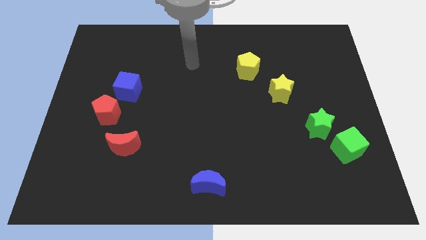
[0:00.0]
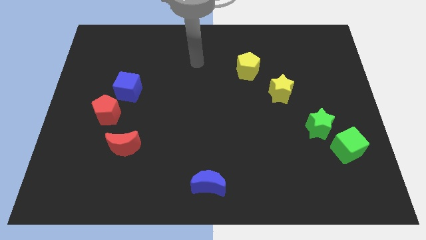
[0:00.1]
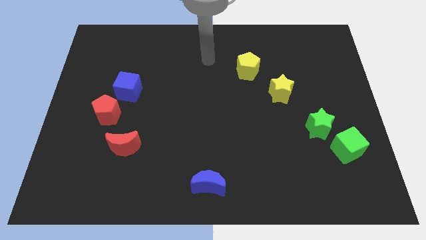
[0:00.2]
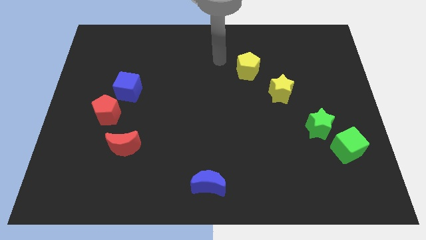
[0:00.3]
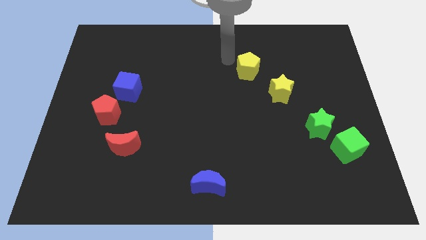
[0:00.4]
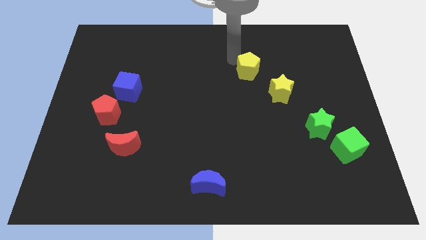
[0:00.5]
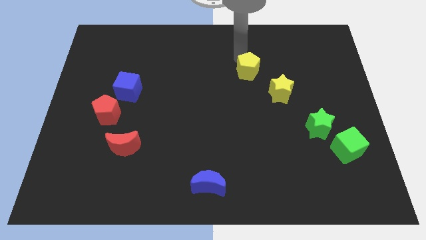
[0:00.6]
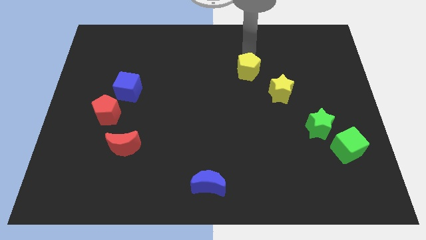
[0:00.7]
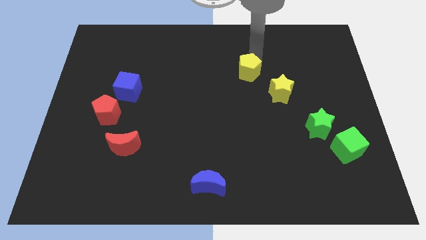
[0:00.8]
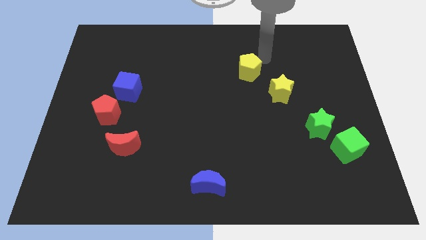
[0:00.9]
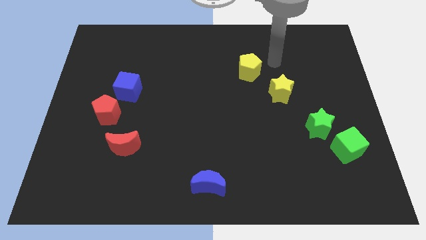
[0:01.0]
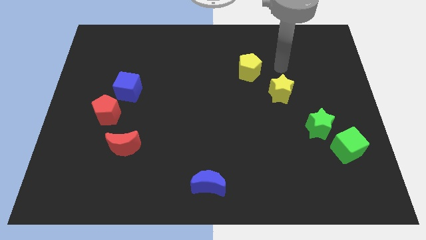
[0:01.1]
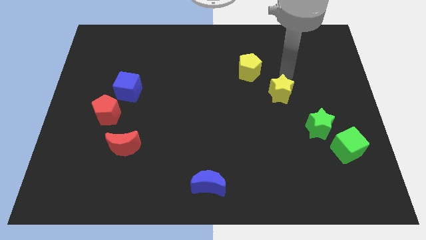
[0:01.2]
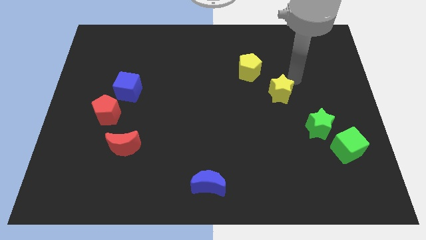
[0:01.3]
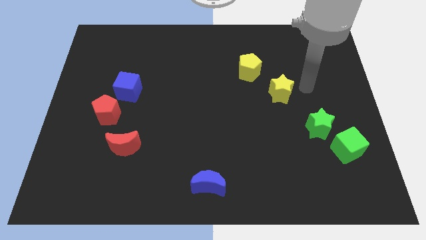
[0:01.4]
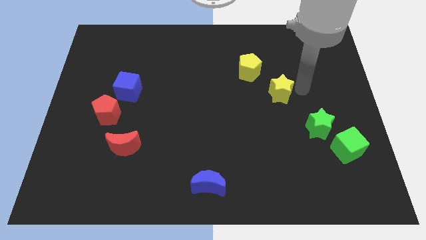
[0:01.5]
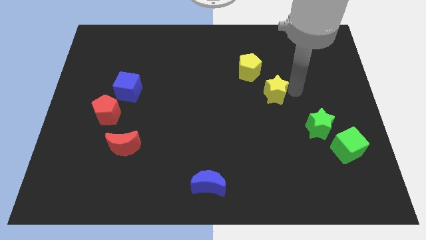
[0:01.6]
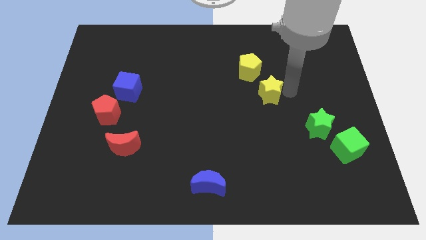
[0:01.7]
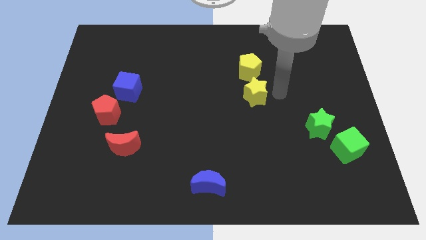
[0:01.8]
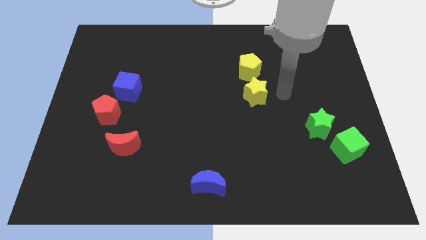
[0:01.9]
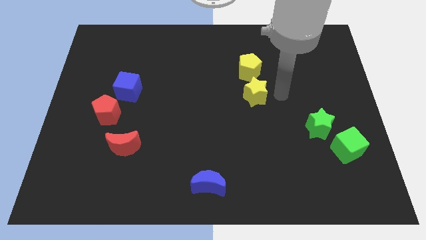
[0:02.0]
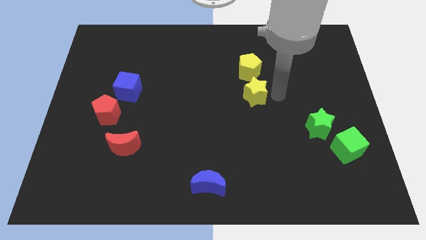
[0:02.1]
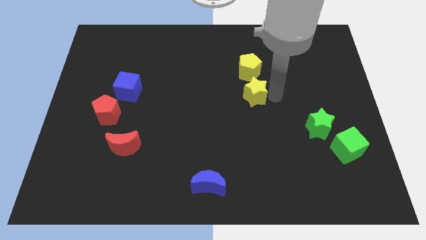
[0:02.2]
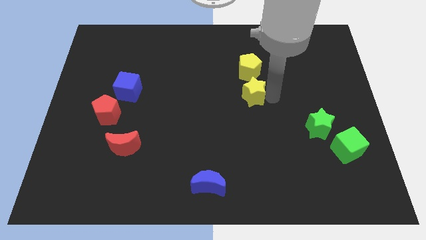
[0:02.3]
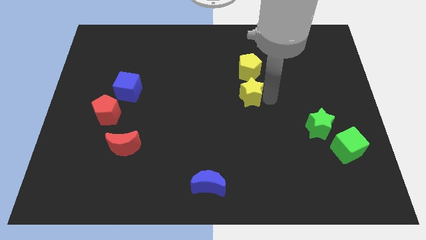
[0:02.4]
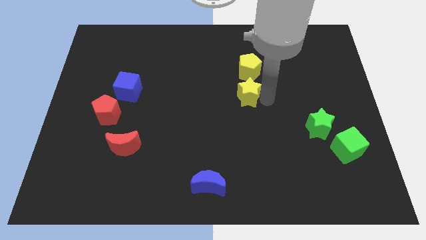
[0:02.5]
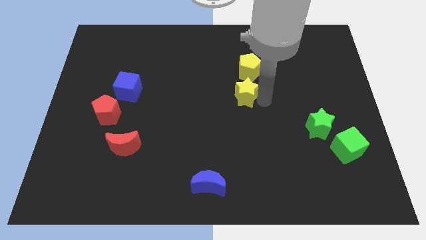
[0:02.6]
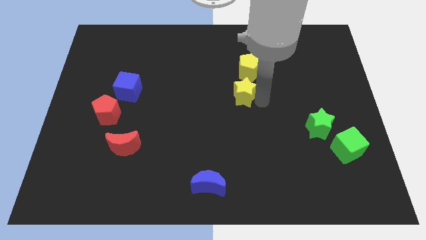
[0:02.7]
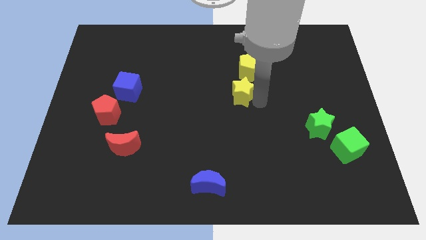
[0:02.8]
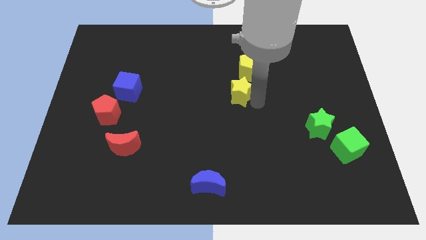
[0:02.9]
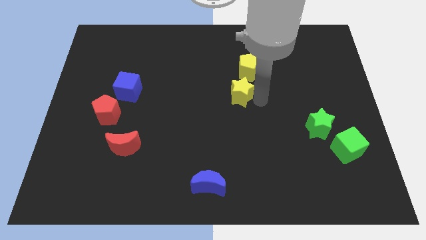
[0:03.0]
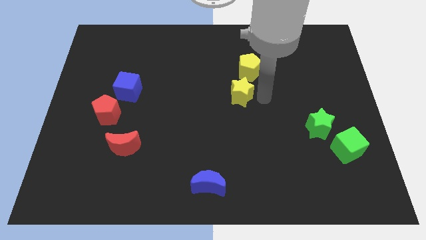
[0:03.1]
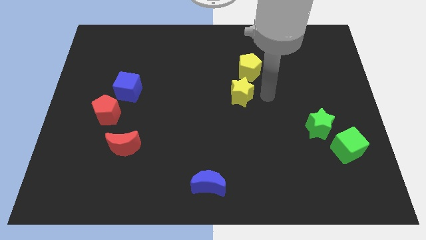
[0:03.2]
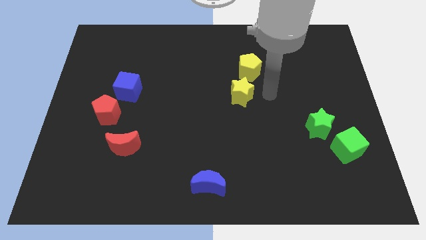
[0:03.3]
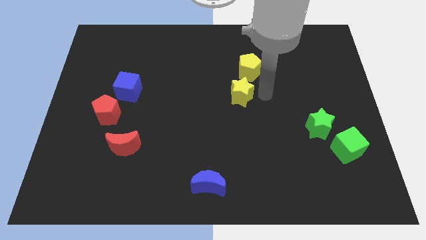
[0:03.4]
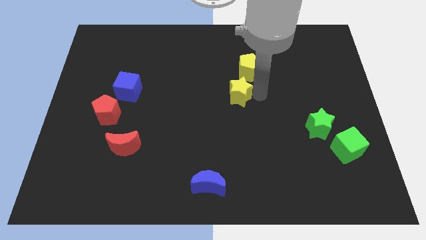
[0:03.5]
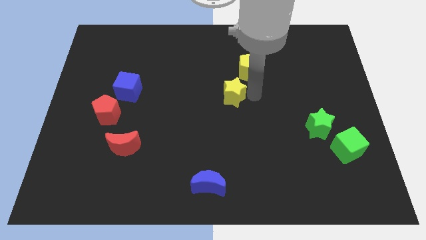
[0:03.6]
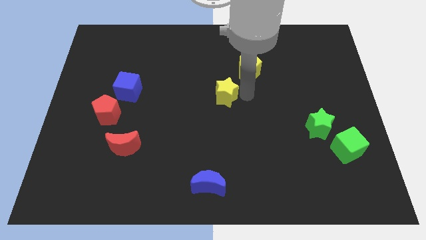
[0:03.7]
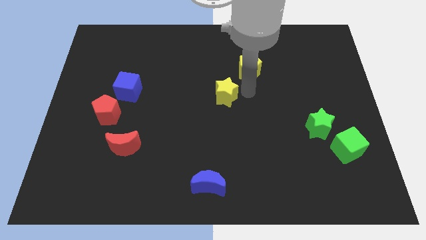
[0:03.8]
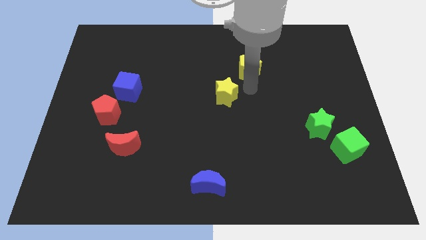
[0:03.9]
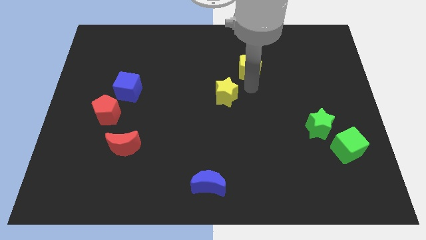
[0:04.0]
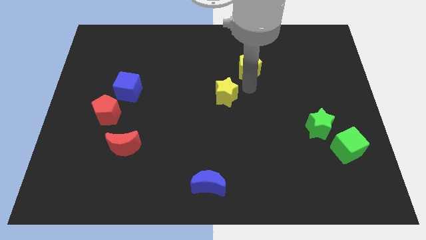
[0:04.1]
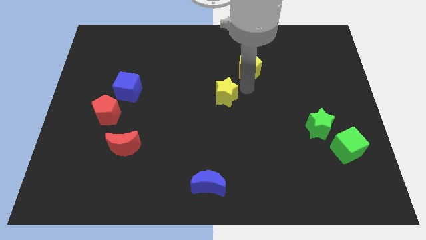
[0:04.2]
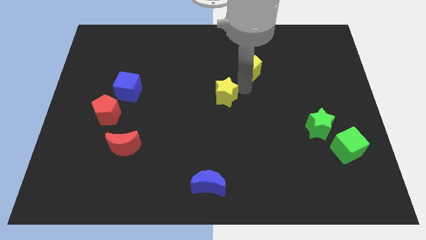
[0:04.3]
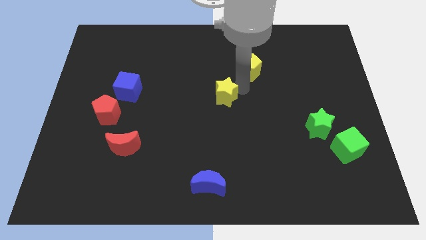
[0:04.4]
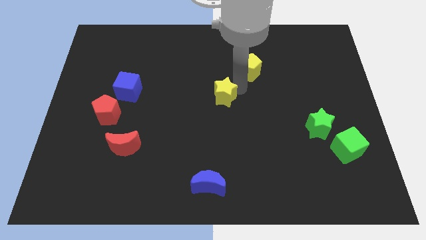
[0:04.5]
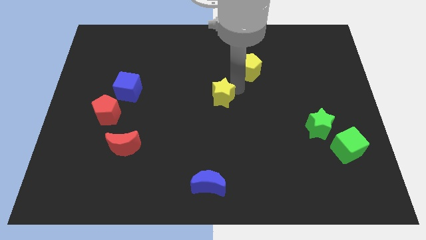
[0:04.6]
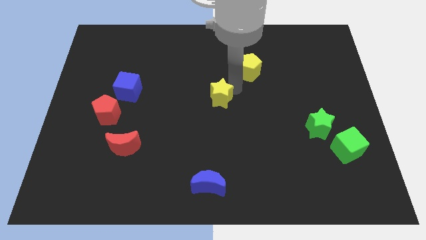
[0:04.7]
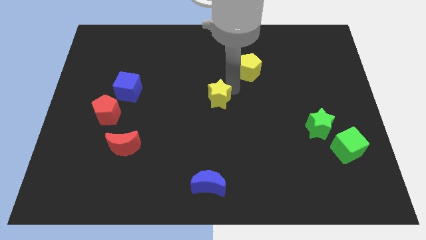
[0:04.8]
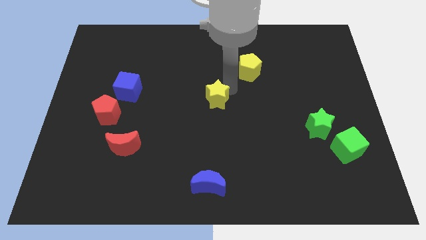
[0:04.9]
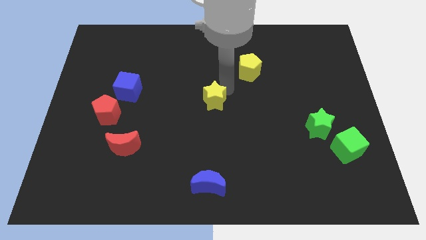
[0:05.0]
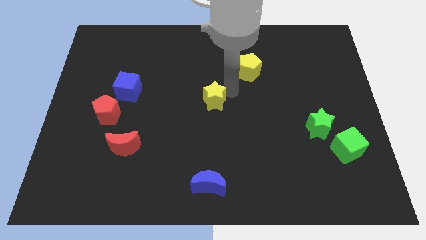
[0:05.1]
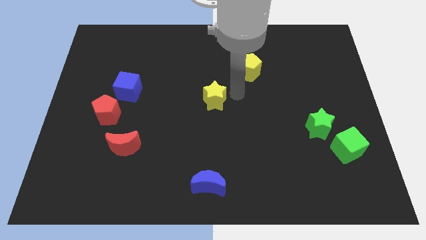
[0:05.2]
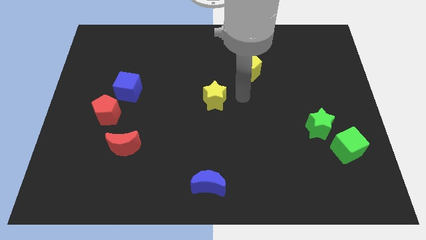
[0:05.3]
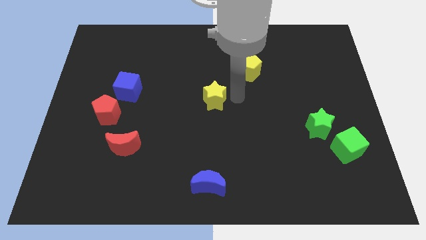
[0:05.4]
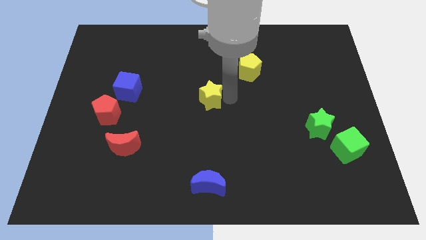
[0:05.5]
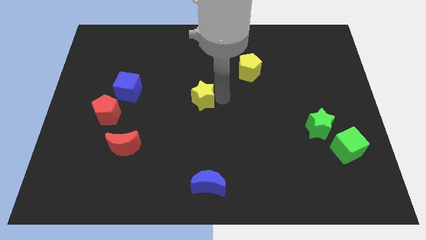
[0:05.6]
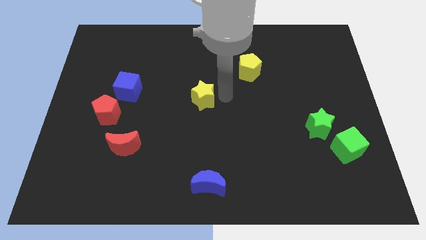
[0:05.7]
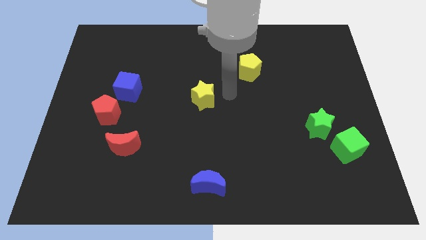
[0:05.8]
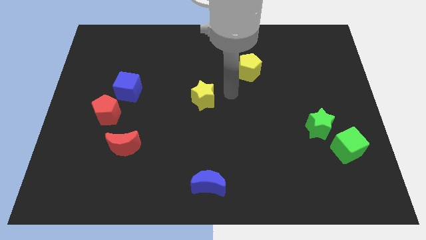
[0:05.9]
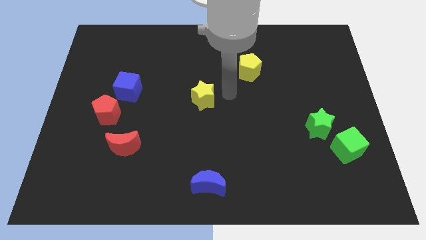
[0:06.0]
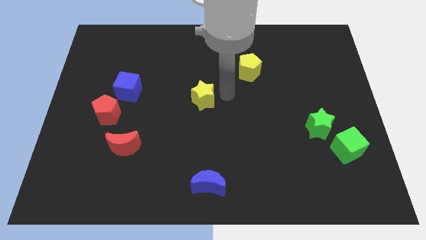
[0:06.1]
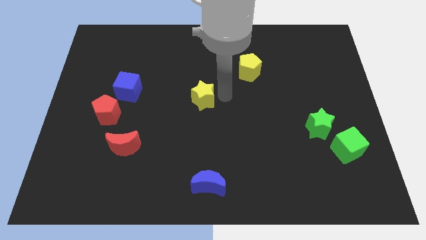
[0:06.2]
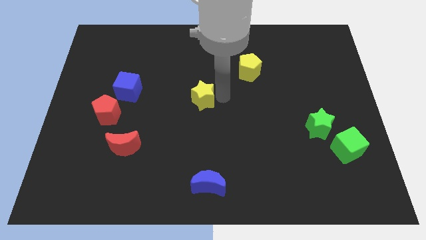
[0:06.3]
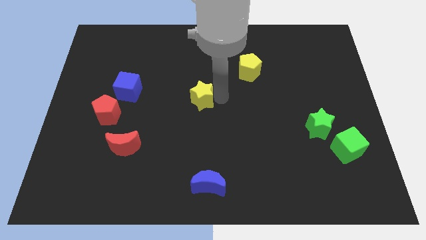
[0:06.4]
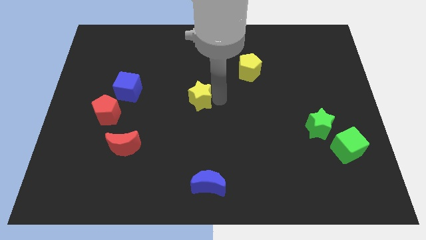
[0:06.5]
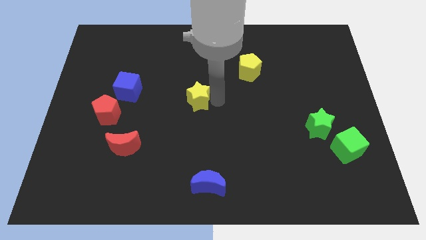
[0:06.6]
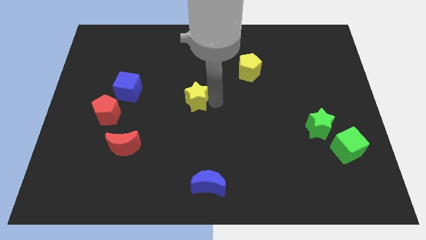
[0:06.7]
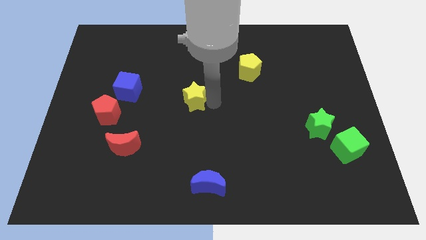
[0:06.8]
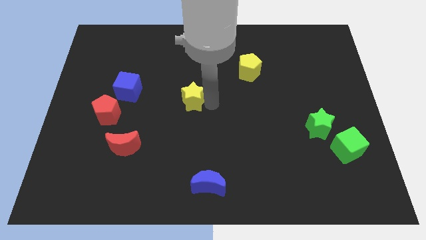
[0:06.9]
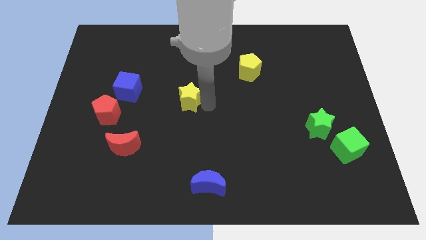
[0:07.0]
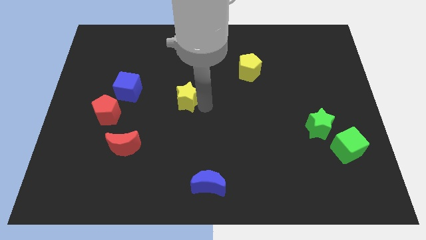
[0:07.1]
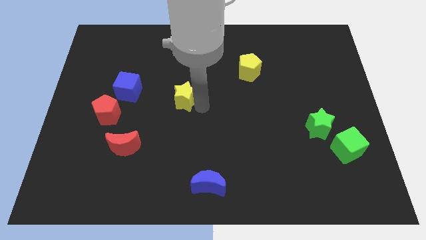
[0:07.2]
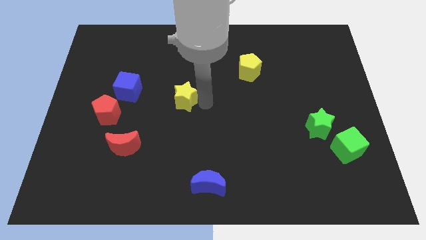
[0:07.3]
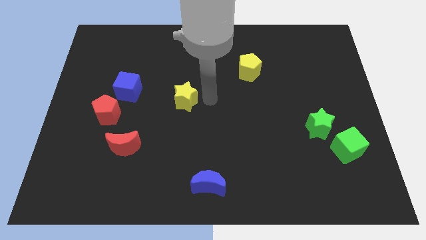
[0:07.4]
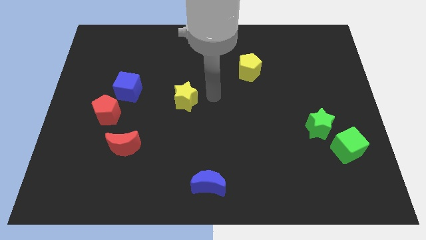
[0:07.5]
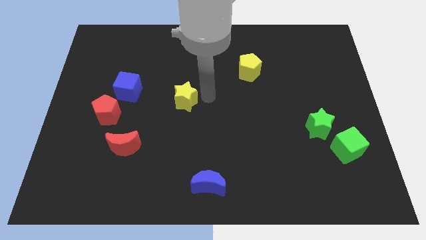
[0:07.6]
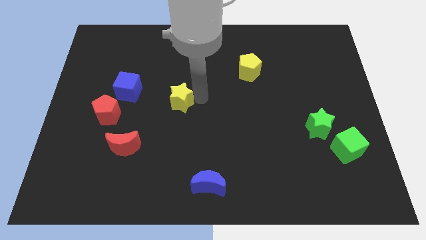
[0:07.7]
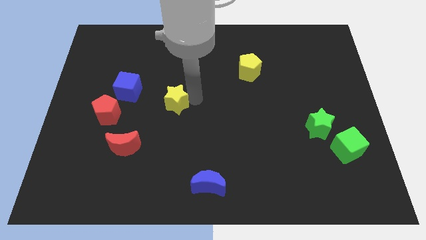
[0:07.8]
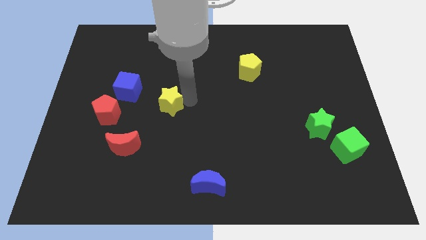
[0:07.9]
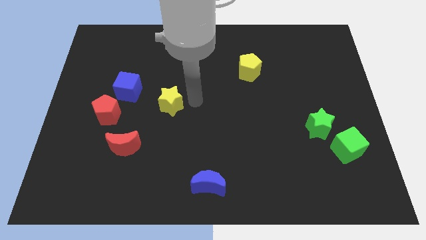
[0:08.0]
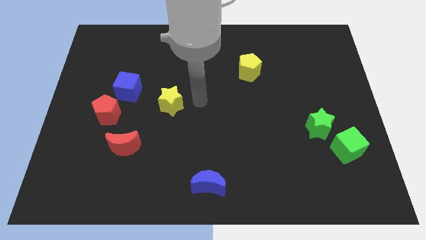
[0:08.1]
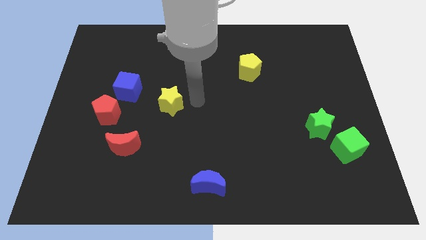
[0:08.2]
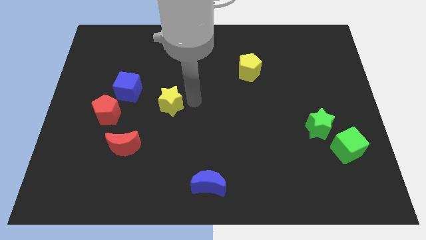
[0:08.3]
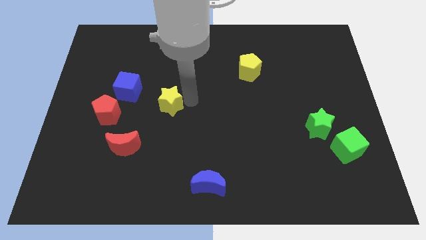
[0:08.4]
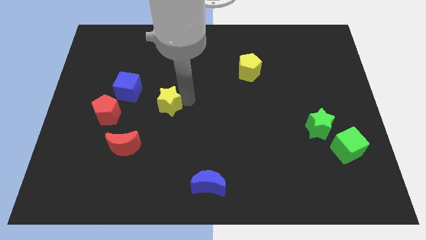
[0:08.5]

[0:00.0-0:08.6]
slide the yellow star to the bottom right side of the blue cube
